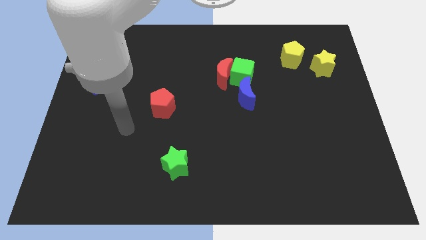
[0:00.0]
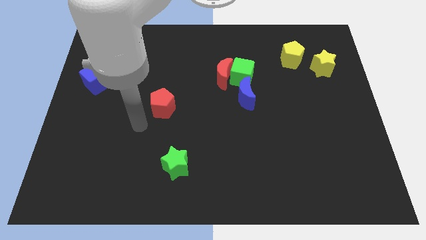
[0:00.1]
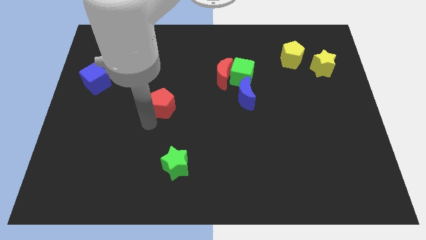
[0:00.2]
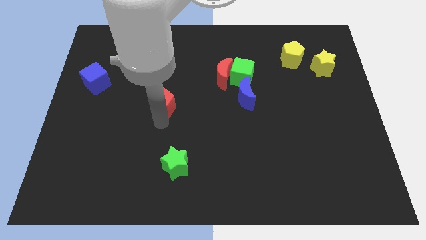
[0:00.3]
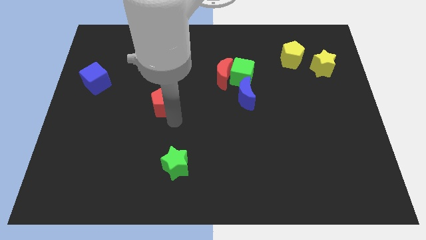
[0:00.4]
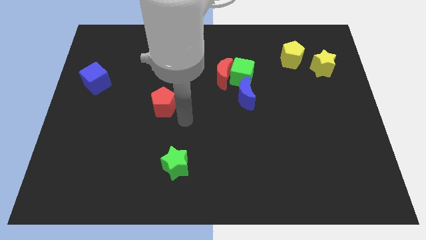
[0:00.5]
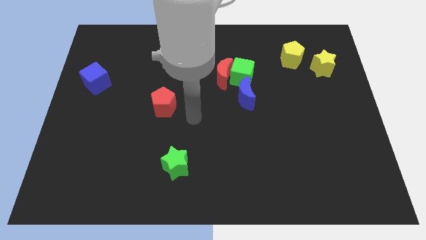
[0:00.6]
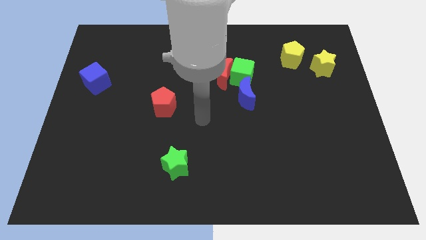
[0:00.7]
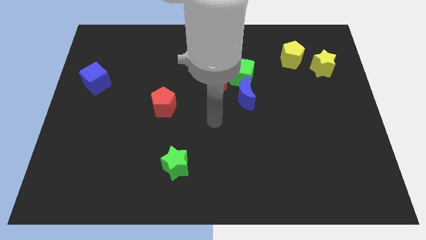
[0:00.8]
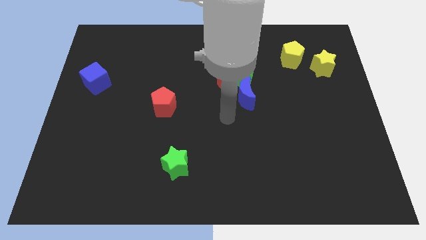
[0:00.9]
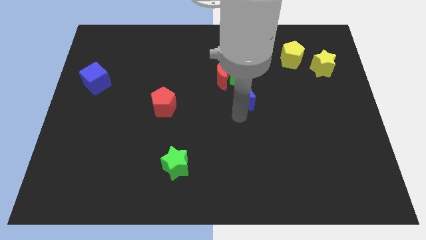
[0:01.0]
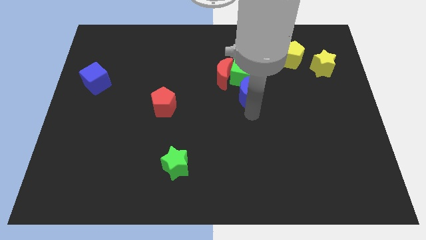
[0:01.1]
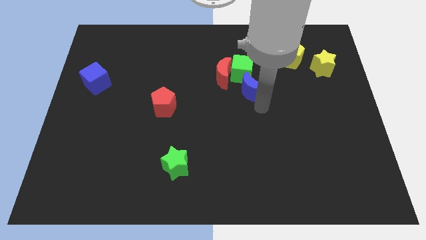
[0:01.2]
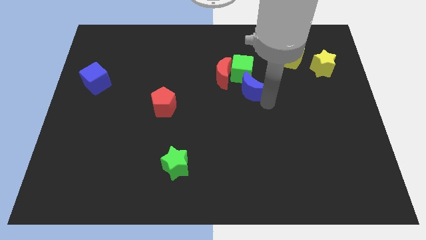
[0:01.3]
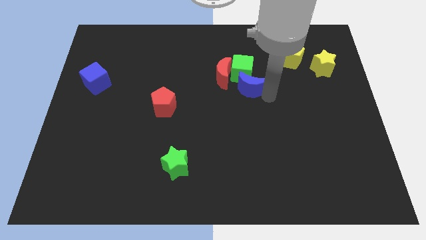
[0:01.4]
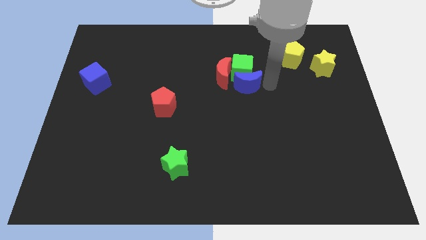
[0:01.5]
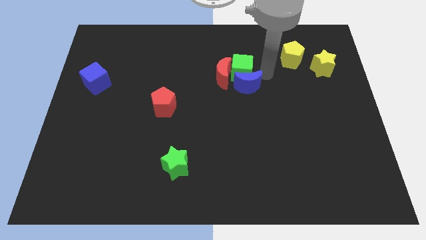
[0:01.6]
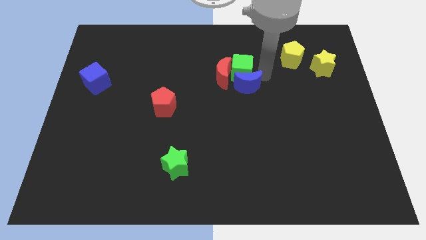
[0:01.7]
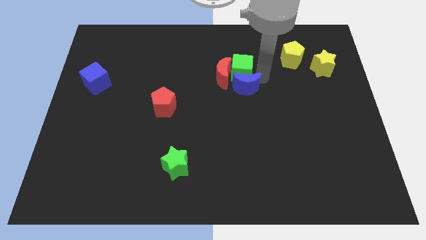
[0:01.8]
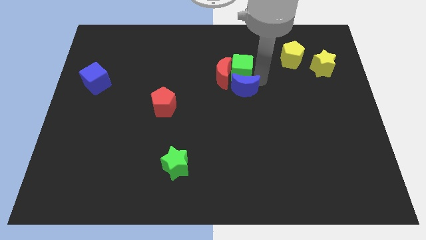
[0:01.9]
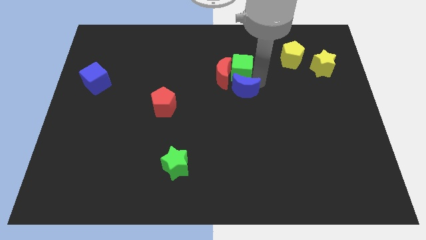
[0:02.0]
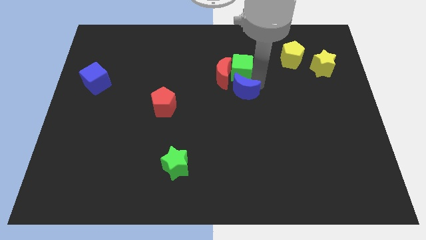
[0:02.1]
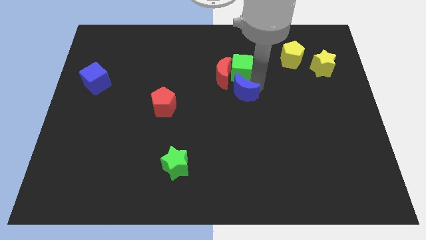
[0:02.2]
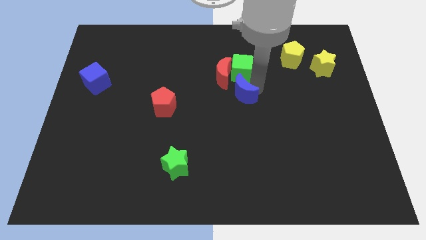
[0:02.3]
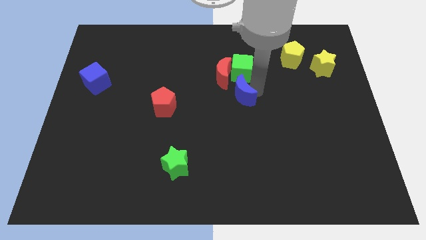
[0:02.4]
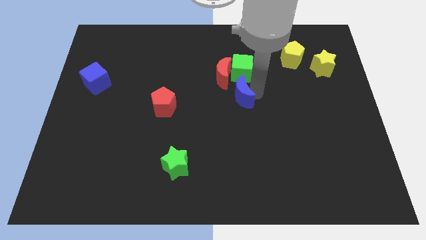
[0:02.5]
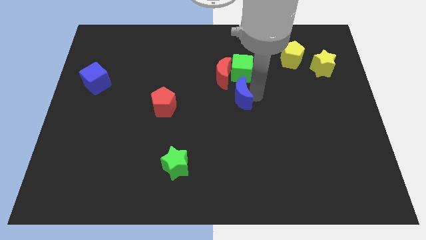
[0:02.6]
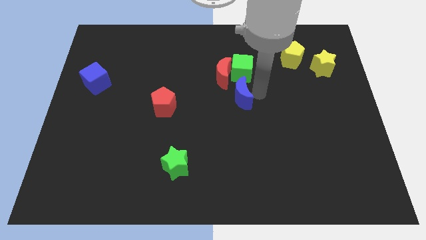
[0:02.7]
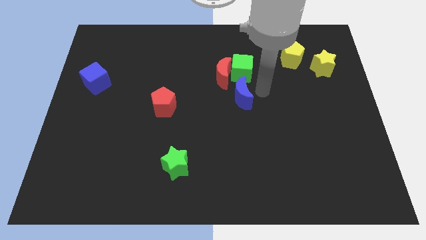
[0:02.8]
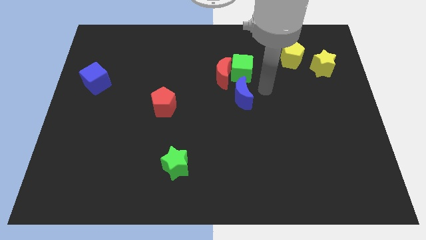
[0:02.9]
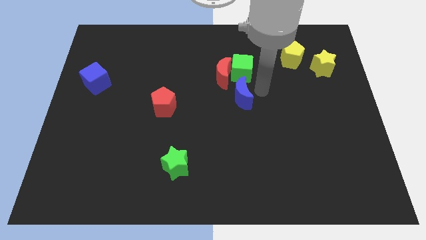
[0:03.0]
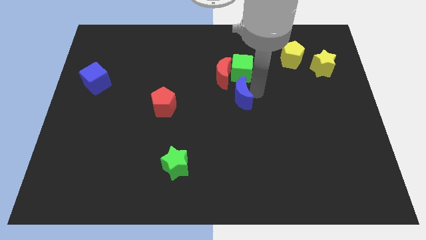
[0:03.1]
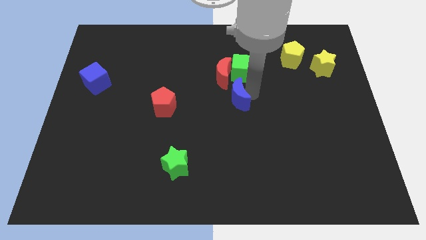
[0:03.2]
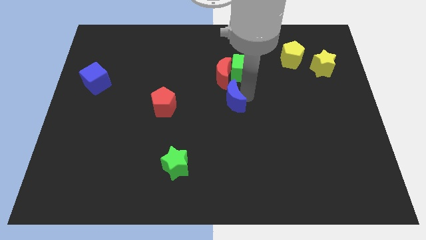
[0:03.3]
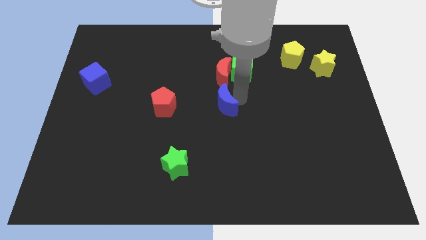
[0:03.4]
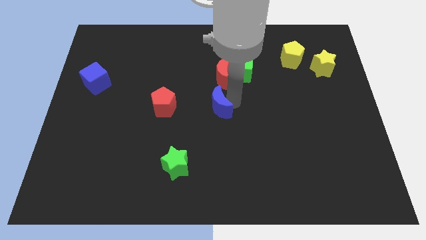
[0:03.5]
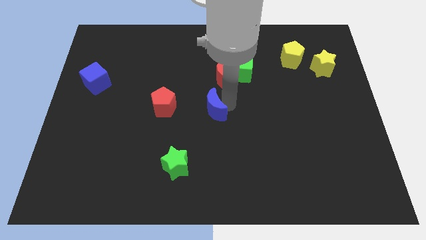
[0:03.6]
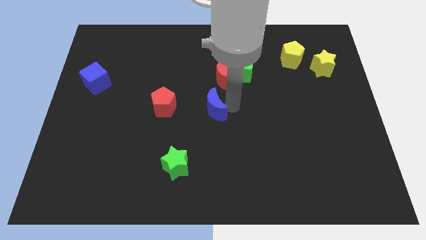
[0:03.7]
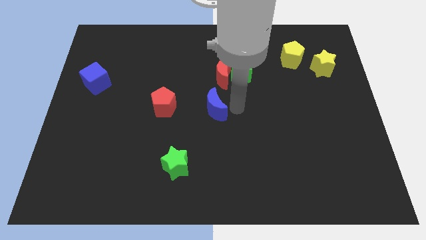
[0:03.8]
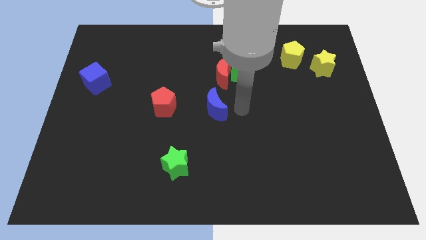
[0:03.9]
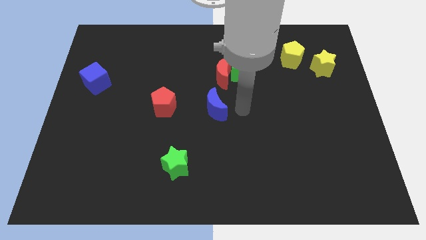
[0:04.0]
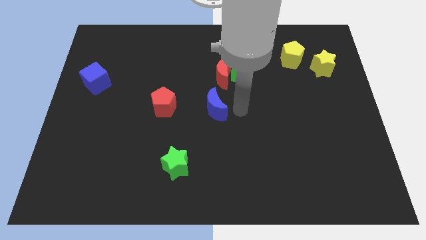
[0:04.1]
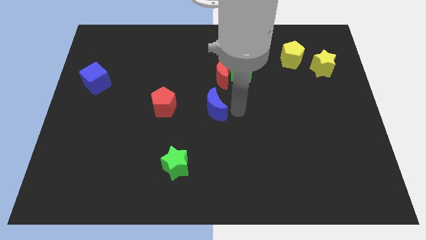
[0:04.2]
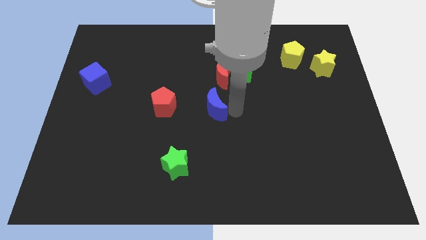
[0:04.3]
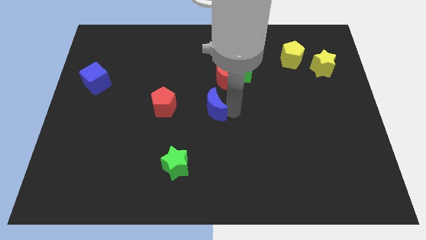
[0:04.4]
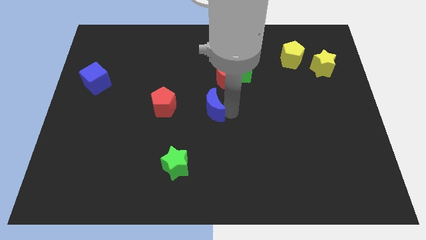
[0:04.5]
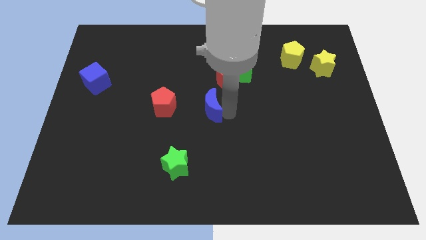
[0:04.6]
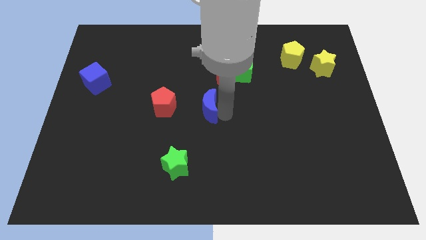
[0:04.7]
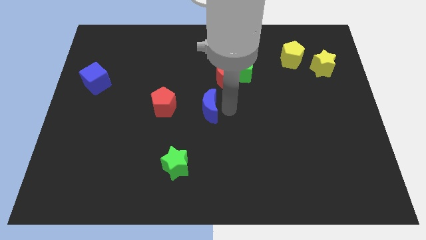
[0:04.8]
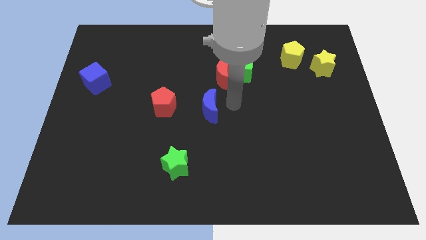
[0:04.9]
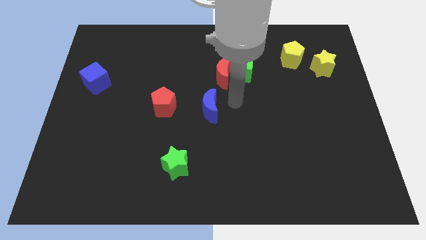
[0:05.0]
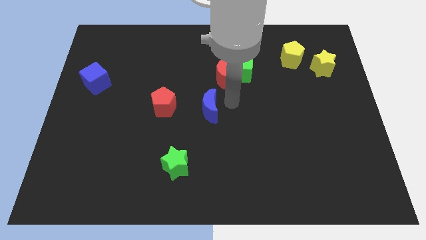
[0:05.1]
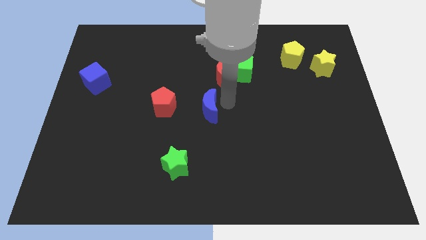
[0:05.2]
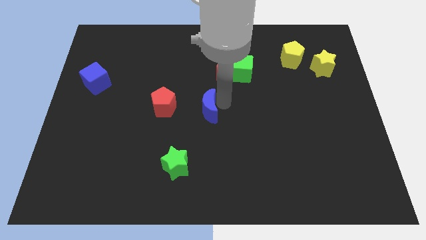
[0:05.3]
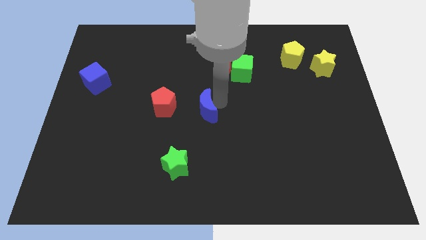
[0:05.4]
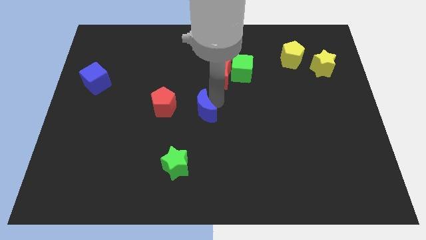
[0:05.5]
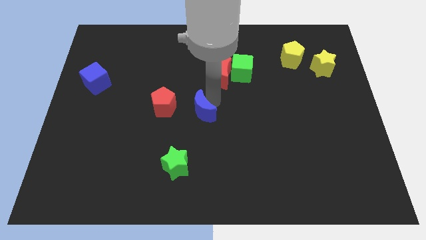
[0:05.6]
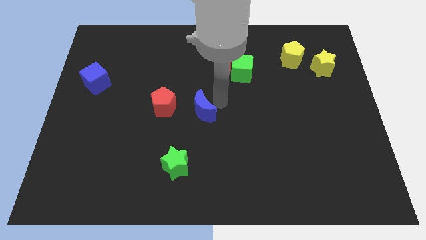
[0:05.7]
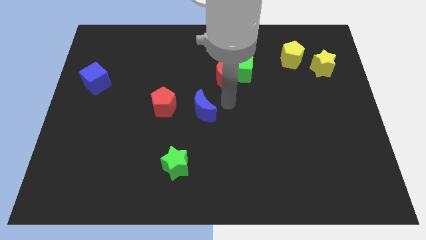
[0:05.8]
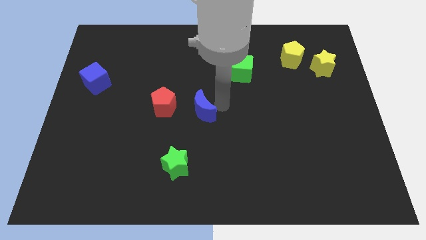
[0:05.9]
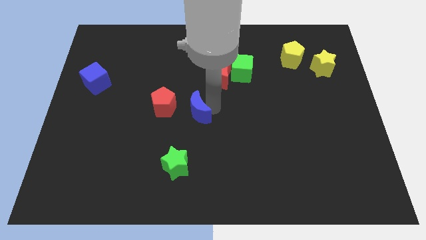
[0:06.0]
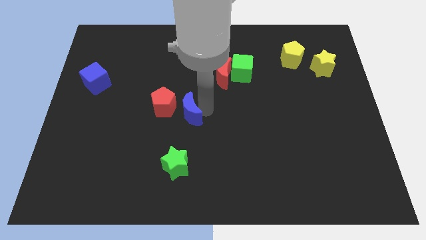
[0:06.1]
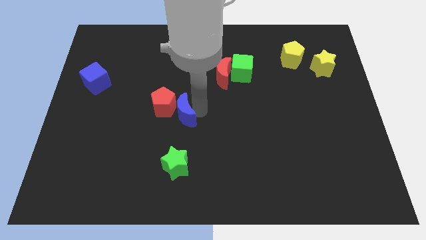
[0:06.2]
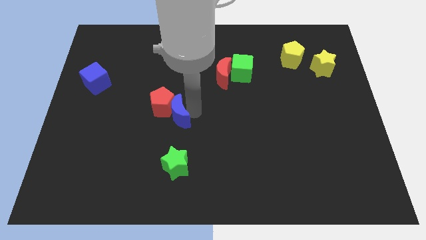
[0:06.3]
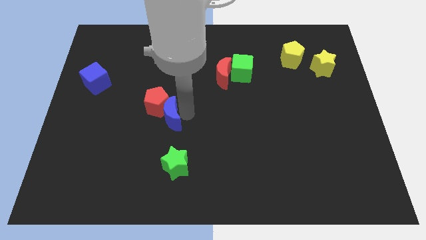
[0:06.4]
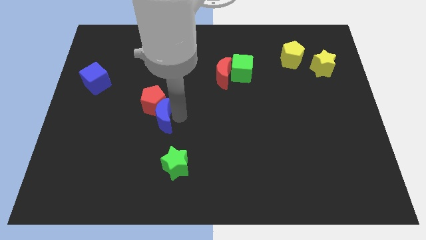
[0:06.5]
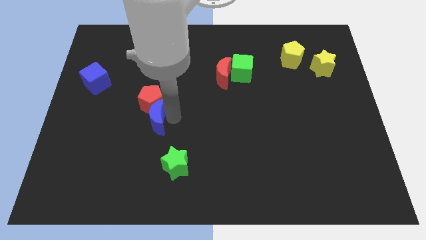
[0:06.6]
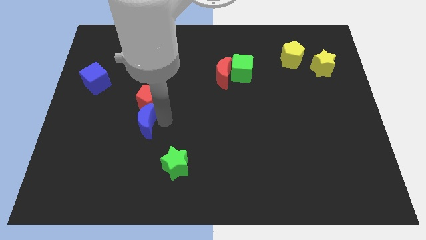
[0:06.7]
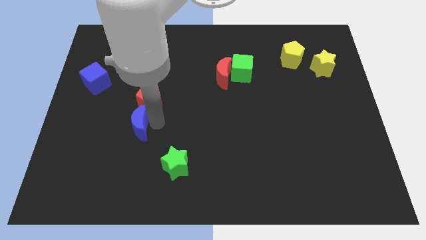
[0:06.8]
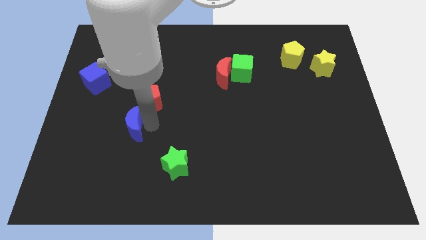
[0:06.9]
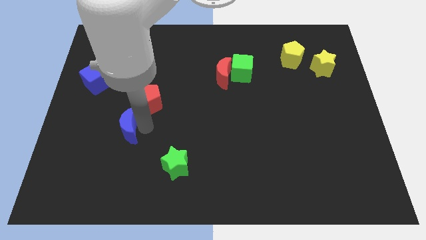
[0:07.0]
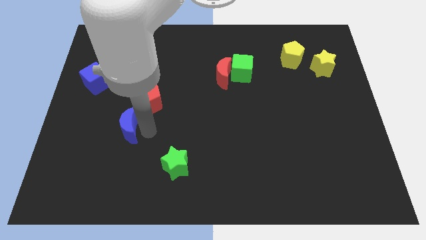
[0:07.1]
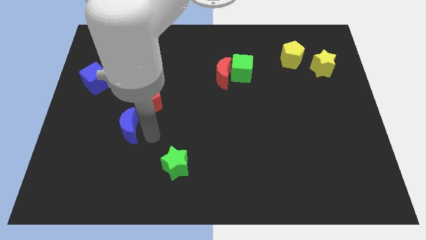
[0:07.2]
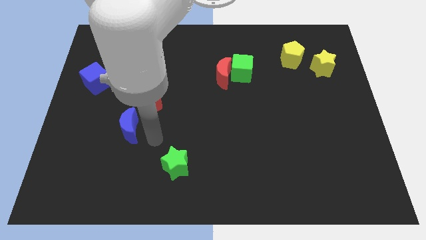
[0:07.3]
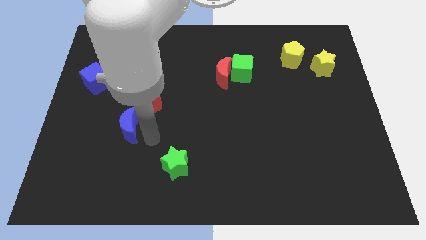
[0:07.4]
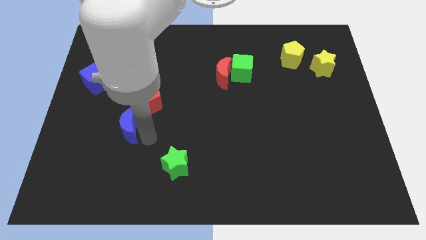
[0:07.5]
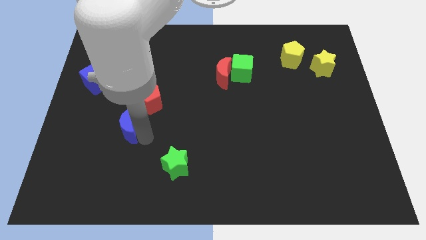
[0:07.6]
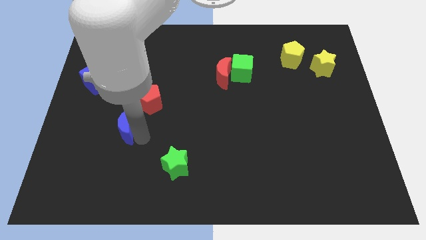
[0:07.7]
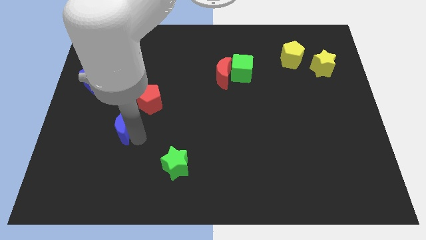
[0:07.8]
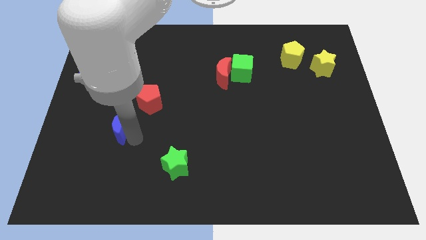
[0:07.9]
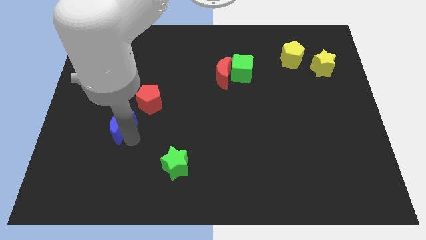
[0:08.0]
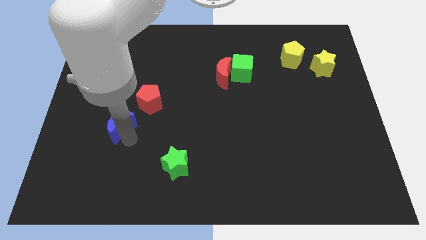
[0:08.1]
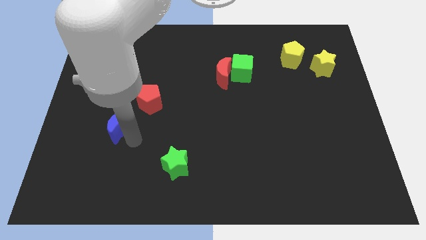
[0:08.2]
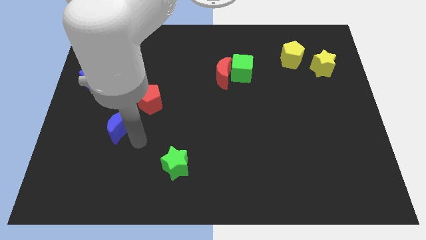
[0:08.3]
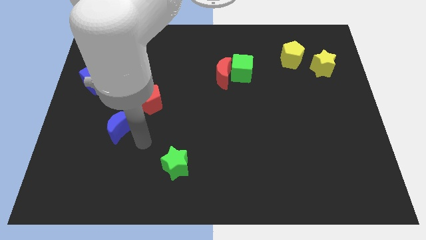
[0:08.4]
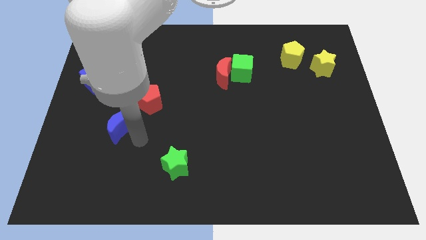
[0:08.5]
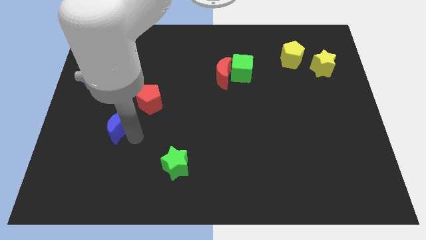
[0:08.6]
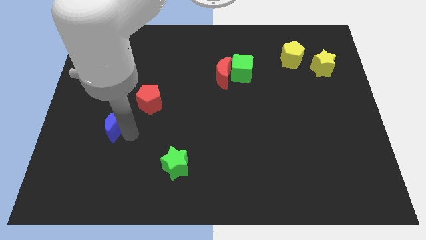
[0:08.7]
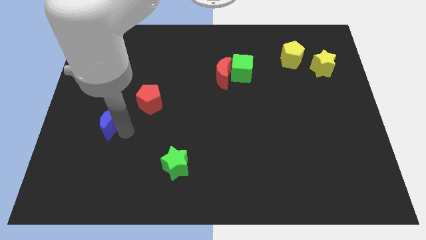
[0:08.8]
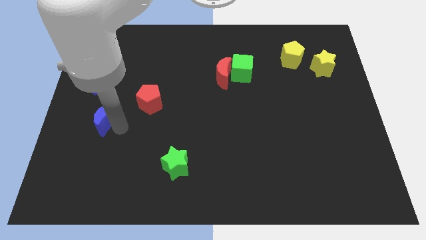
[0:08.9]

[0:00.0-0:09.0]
slide the blue moon to the bottom of the blue cube
